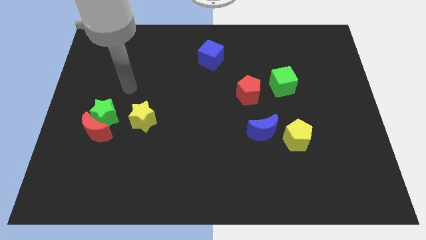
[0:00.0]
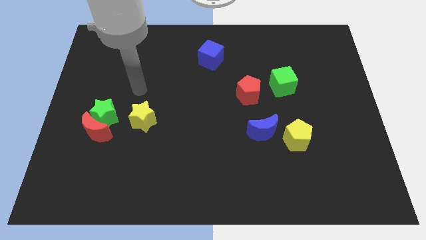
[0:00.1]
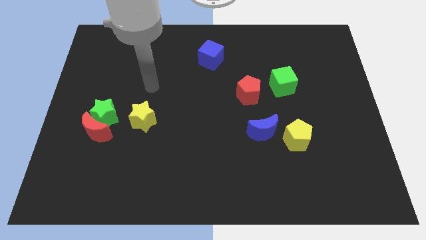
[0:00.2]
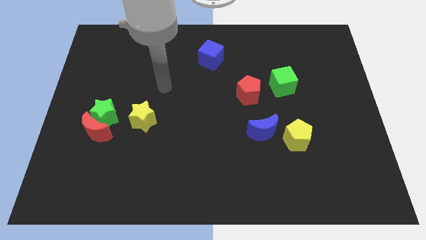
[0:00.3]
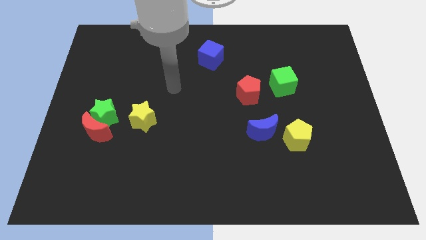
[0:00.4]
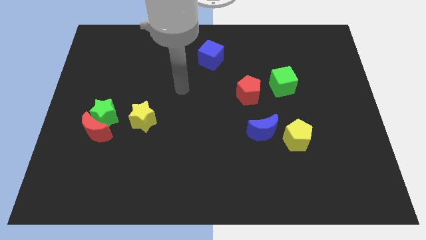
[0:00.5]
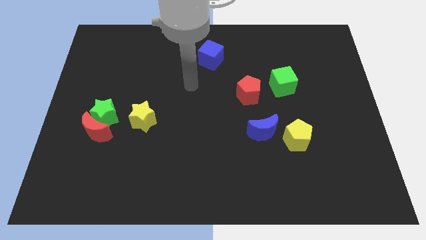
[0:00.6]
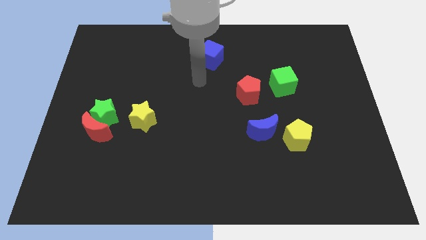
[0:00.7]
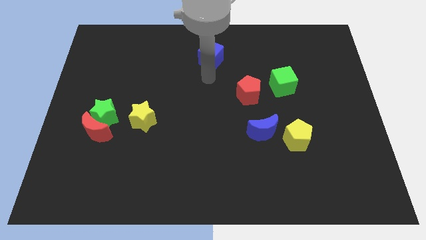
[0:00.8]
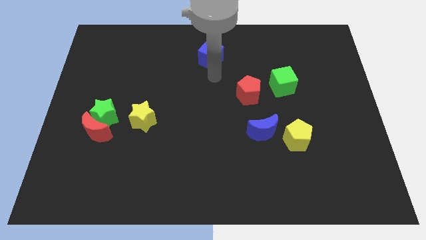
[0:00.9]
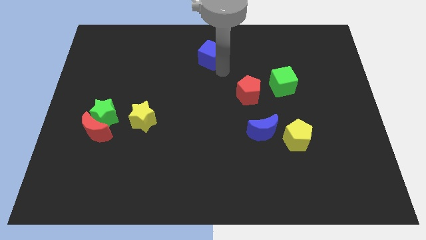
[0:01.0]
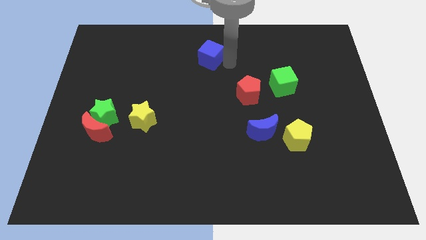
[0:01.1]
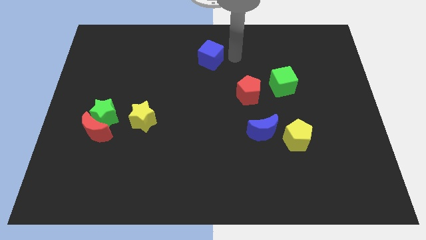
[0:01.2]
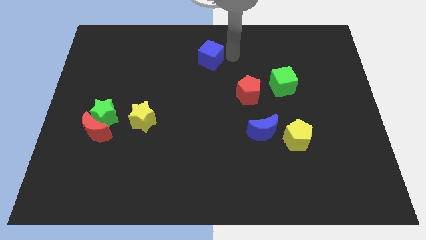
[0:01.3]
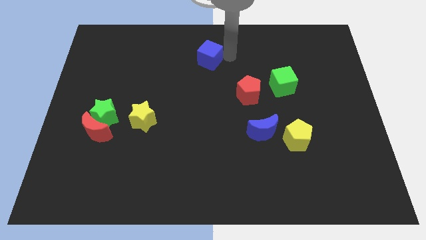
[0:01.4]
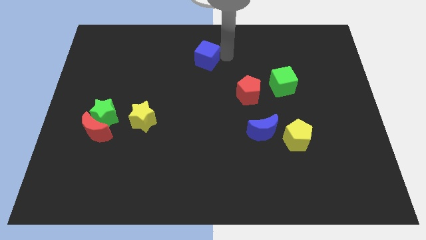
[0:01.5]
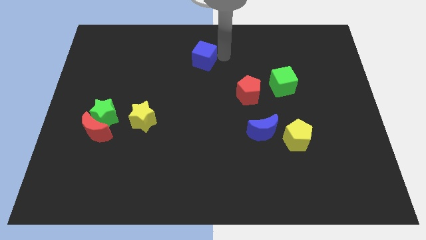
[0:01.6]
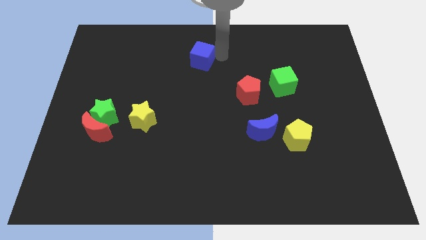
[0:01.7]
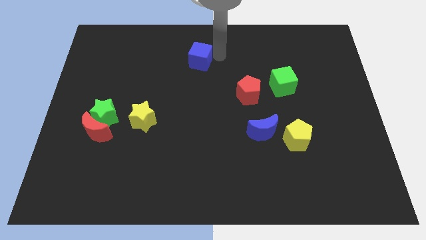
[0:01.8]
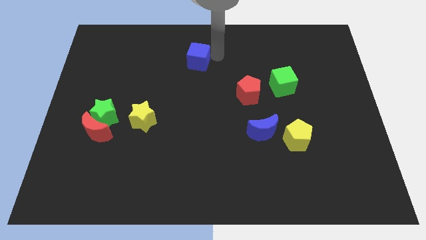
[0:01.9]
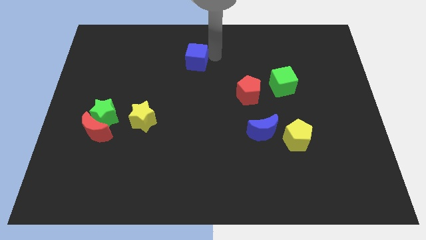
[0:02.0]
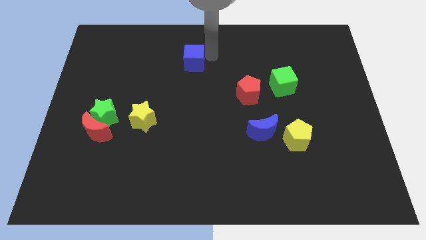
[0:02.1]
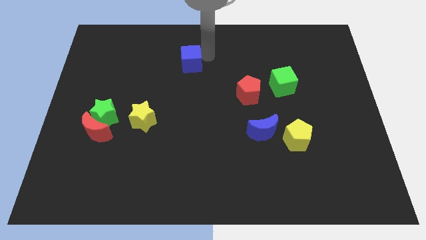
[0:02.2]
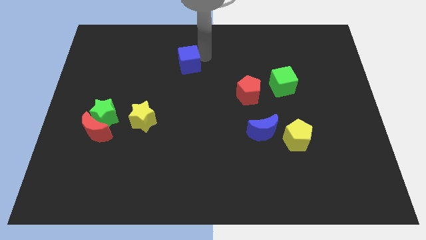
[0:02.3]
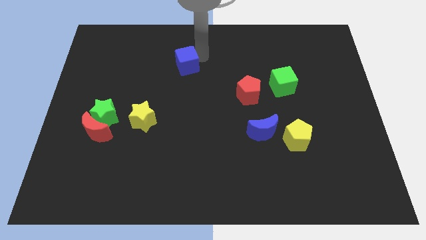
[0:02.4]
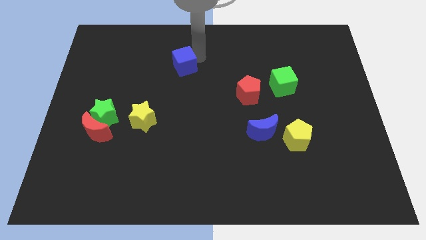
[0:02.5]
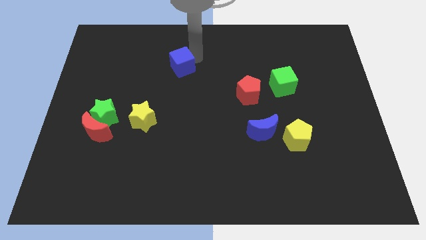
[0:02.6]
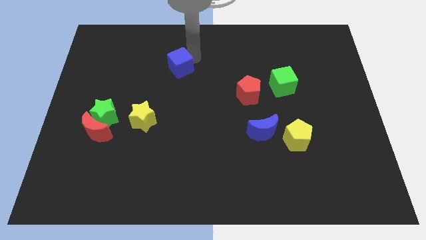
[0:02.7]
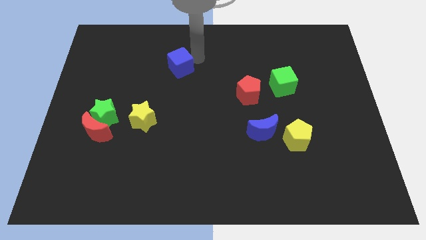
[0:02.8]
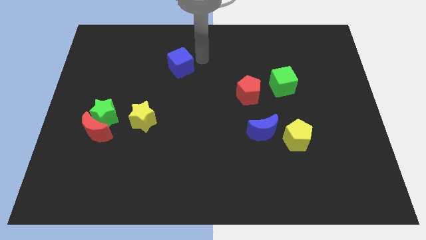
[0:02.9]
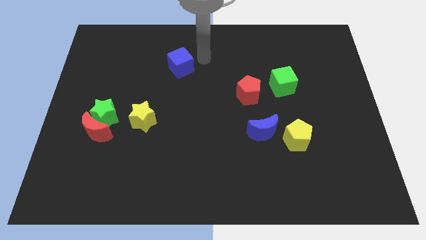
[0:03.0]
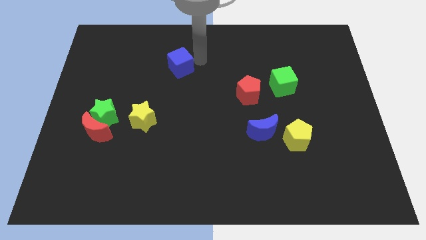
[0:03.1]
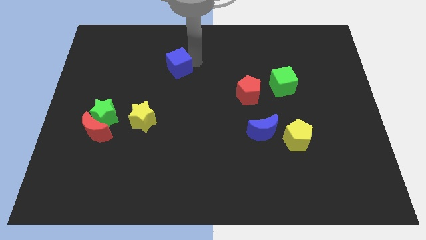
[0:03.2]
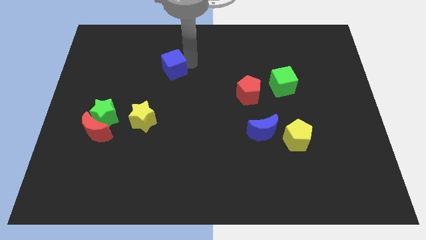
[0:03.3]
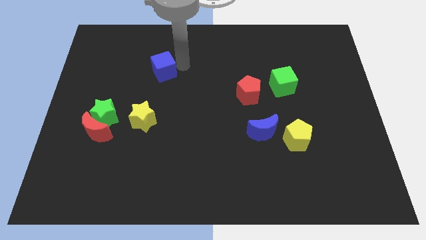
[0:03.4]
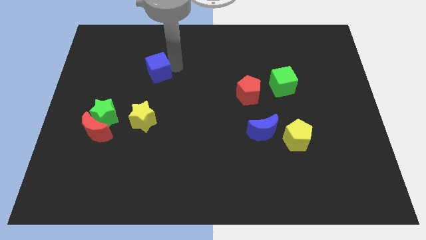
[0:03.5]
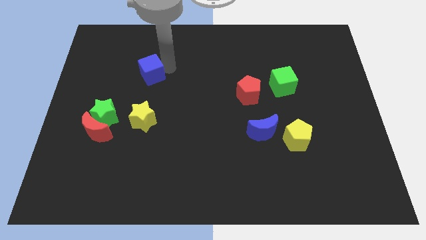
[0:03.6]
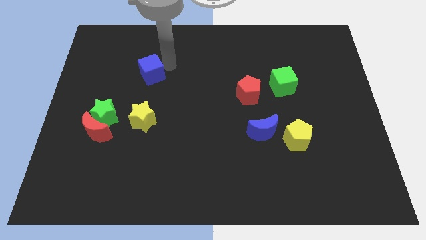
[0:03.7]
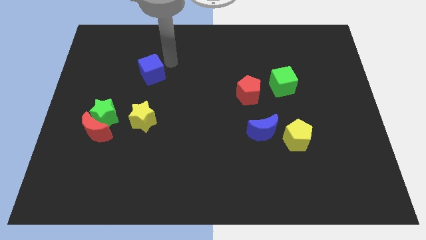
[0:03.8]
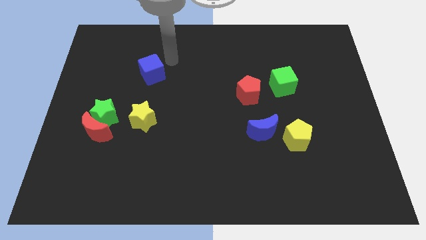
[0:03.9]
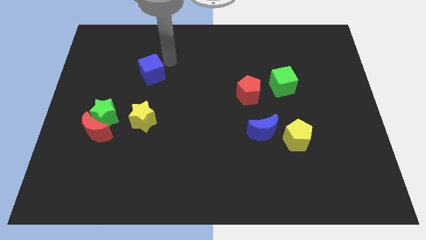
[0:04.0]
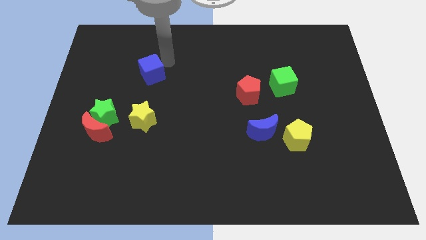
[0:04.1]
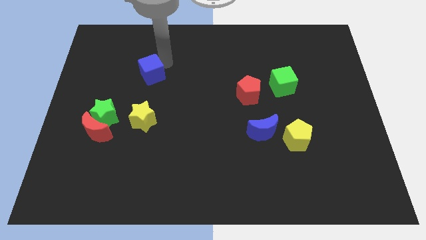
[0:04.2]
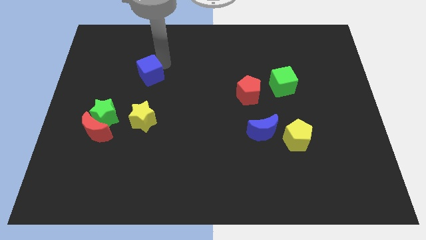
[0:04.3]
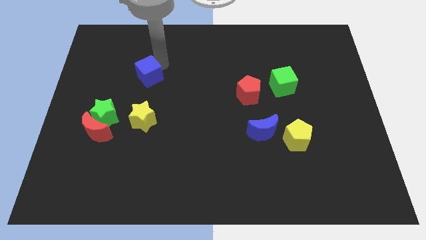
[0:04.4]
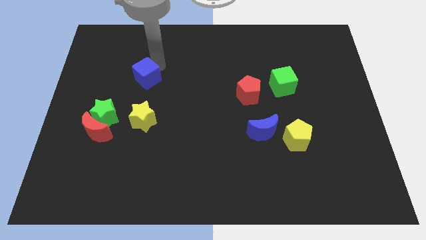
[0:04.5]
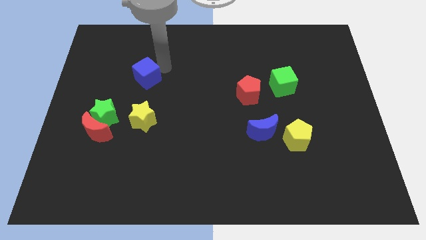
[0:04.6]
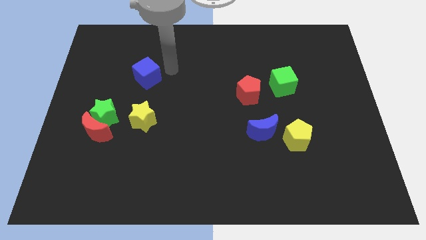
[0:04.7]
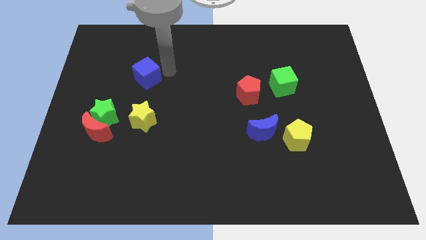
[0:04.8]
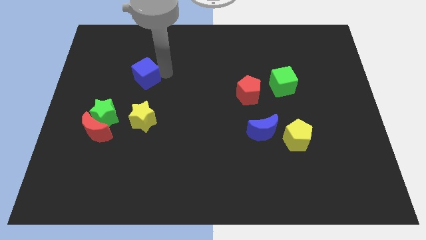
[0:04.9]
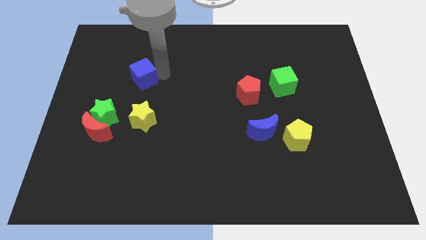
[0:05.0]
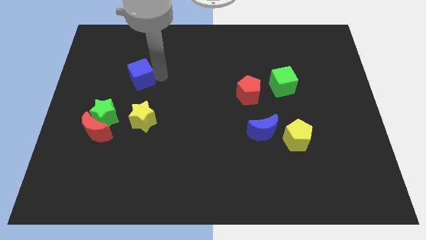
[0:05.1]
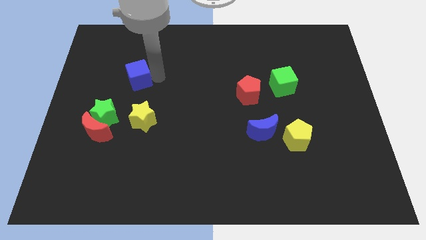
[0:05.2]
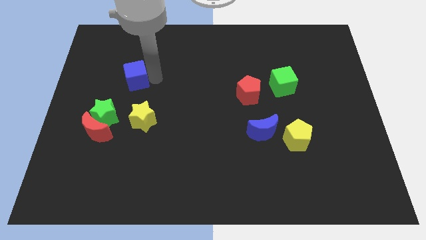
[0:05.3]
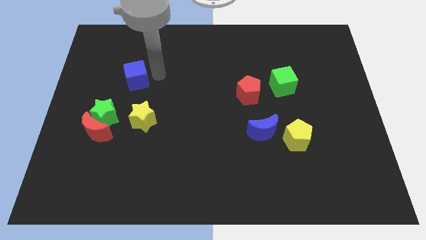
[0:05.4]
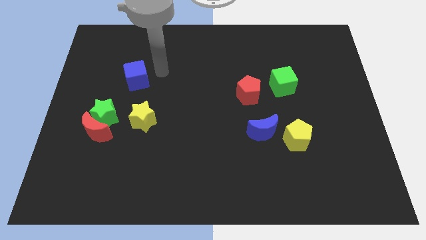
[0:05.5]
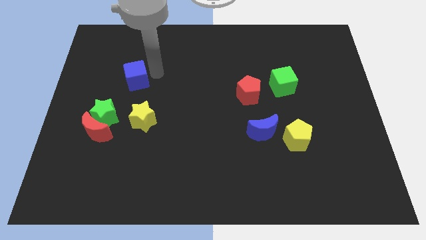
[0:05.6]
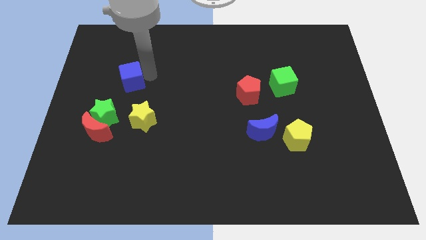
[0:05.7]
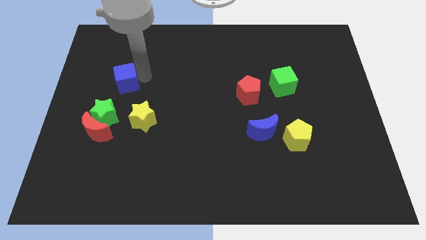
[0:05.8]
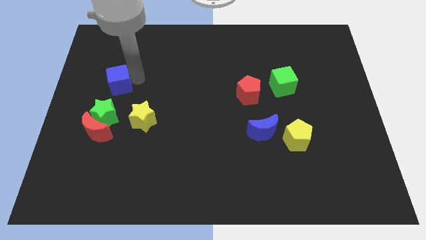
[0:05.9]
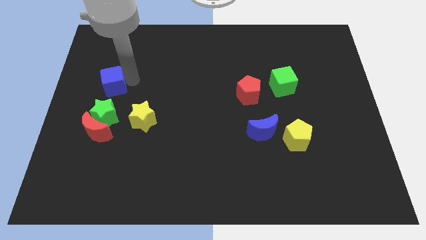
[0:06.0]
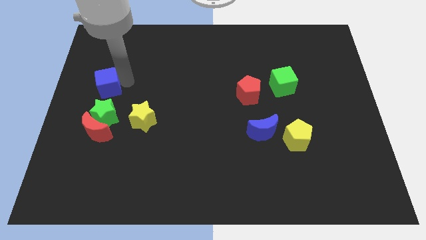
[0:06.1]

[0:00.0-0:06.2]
put the blue cube to the left side of the board

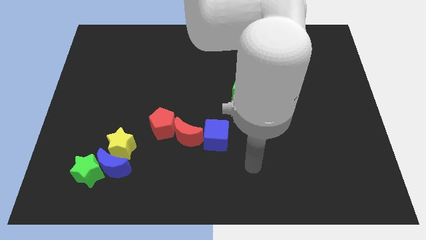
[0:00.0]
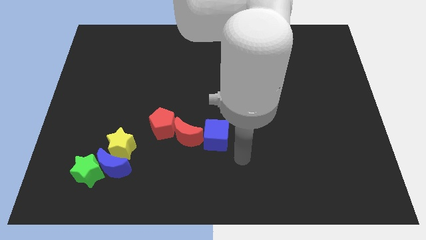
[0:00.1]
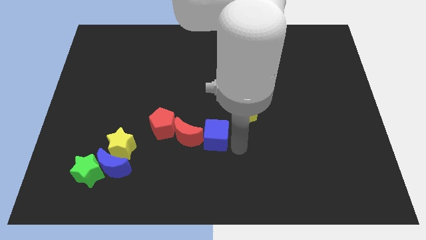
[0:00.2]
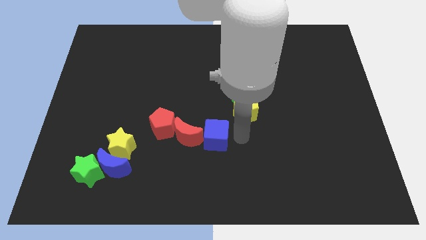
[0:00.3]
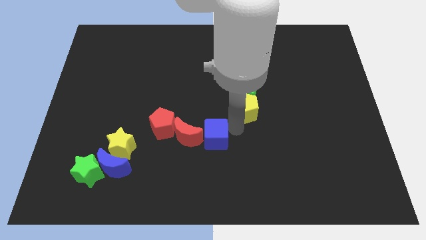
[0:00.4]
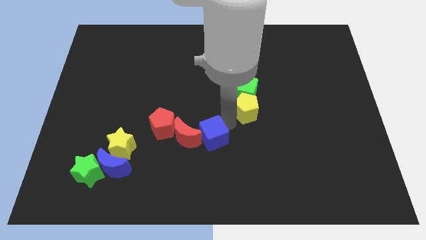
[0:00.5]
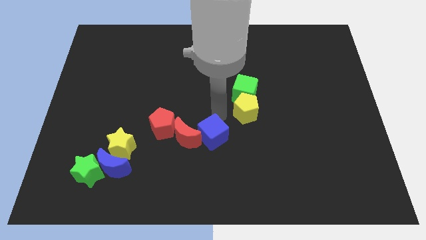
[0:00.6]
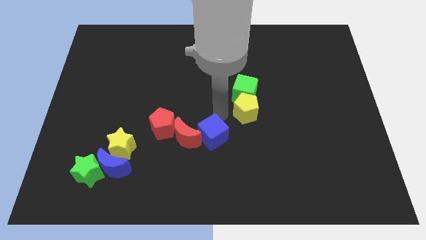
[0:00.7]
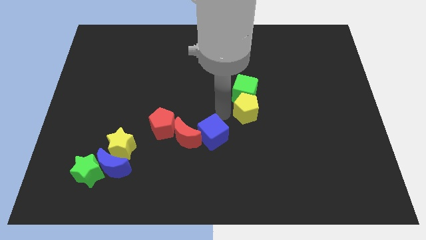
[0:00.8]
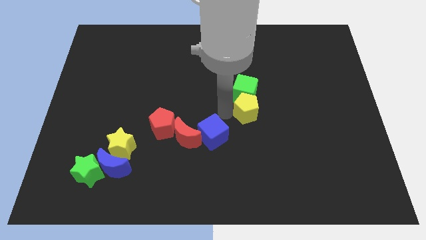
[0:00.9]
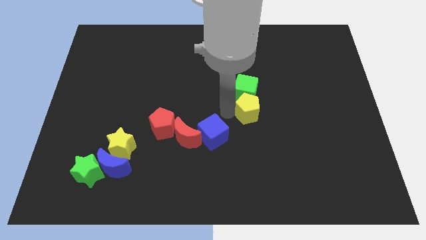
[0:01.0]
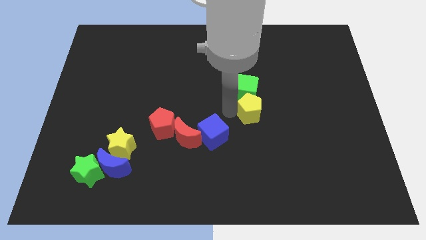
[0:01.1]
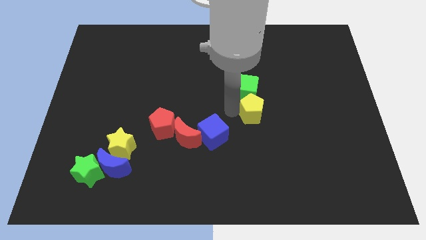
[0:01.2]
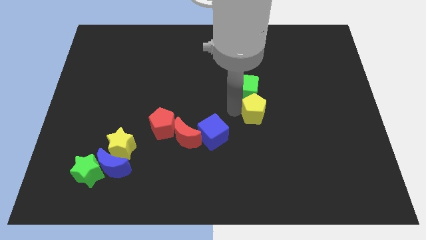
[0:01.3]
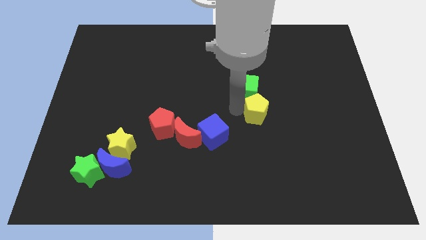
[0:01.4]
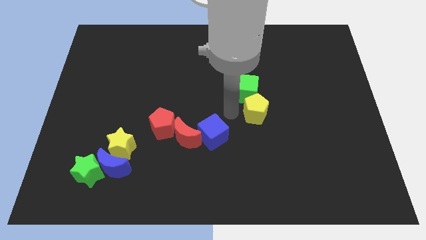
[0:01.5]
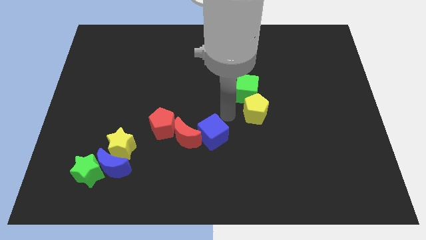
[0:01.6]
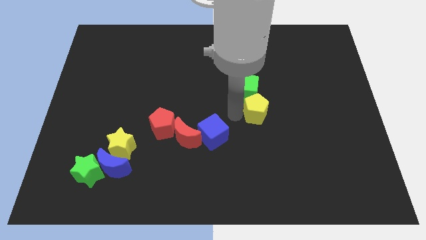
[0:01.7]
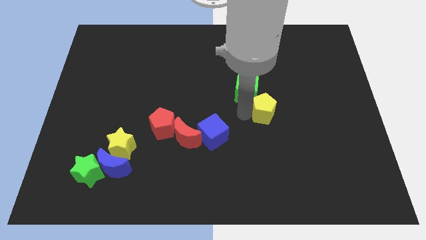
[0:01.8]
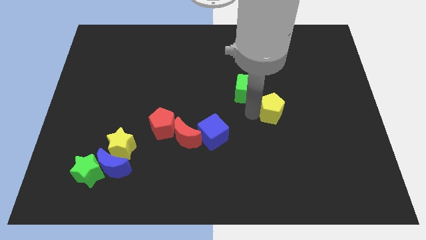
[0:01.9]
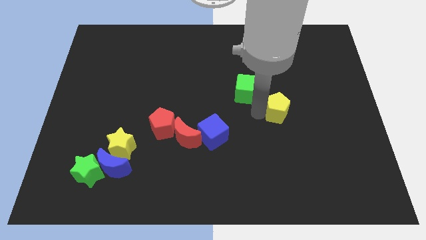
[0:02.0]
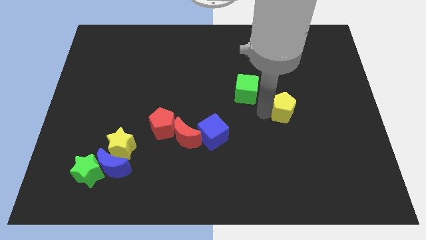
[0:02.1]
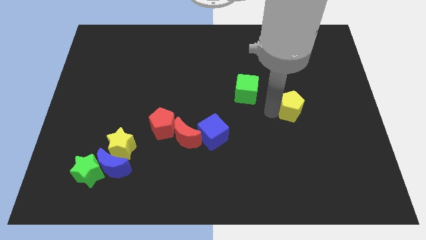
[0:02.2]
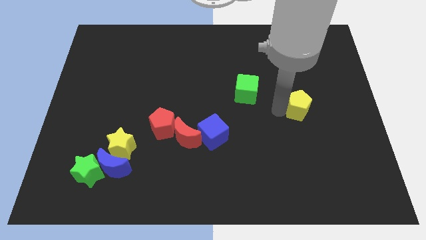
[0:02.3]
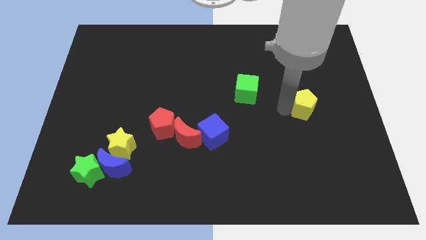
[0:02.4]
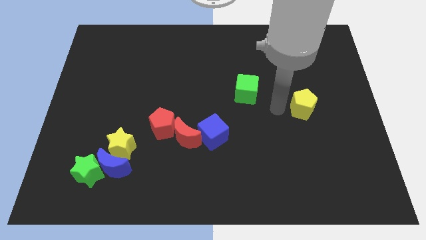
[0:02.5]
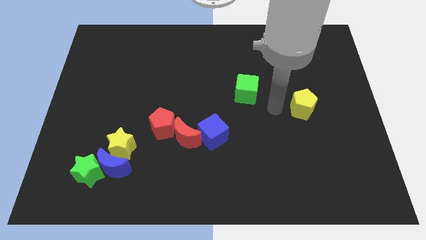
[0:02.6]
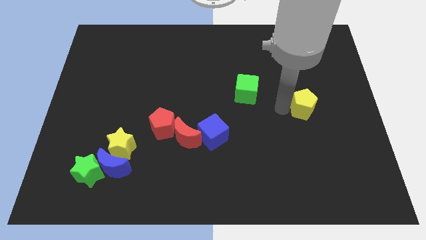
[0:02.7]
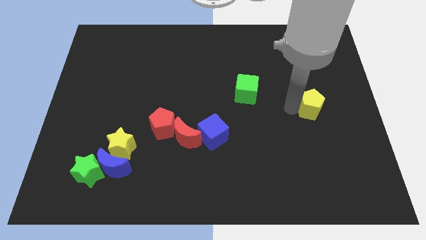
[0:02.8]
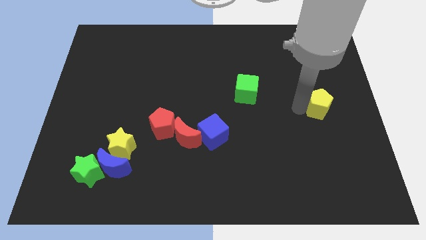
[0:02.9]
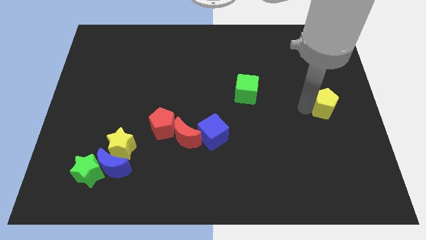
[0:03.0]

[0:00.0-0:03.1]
put the yellow pentagon to the right side of the board
